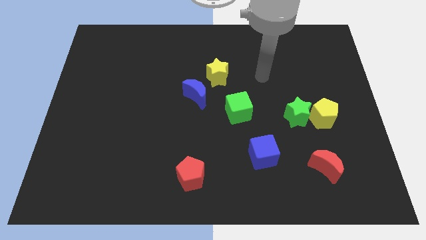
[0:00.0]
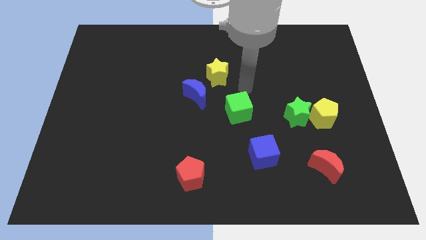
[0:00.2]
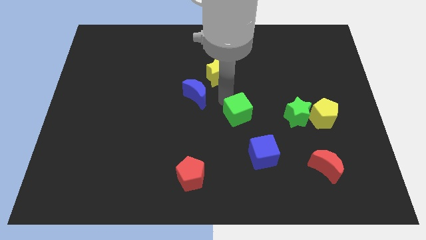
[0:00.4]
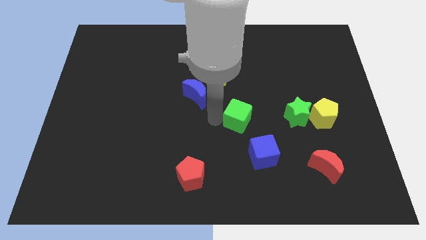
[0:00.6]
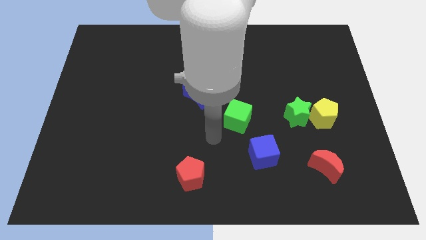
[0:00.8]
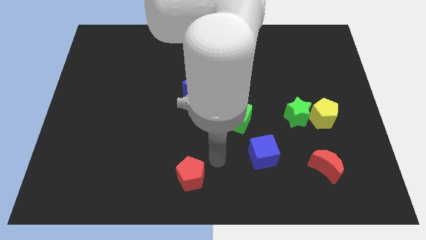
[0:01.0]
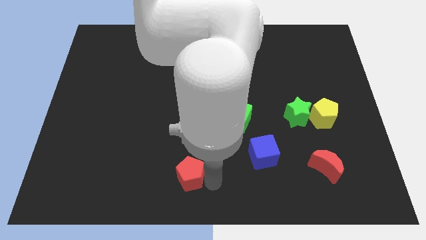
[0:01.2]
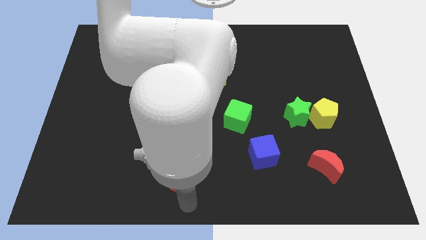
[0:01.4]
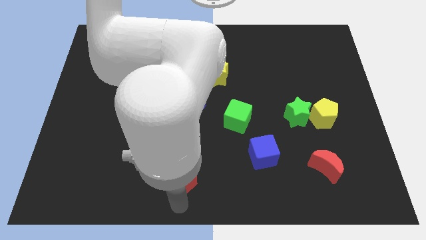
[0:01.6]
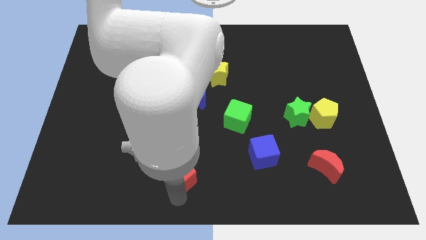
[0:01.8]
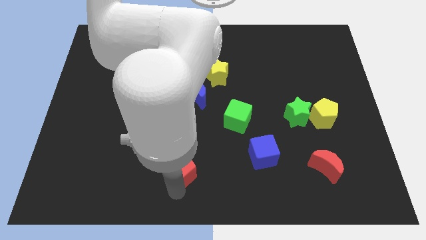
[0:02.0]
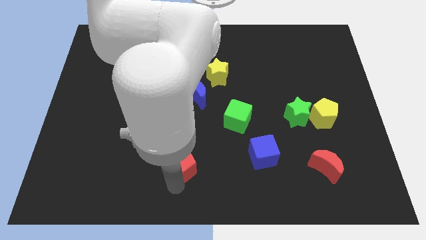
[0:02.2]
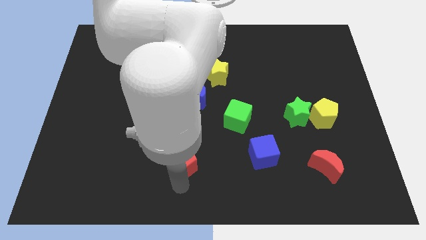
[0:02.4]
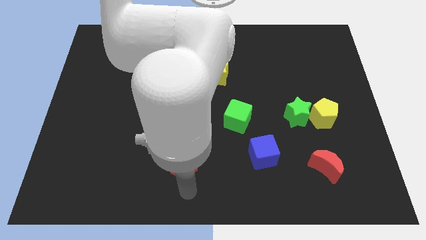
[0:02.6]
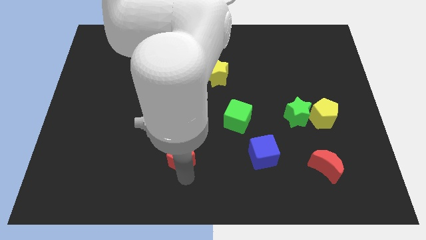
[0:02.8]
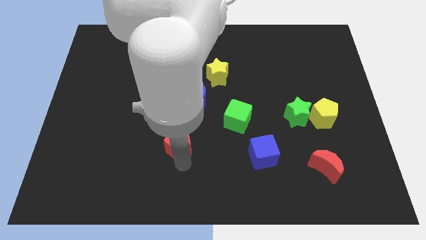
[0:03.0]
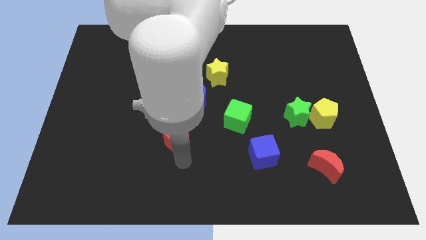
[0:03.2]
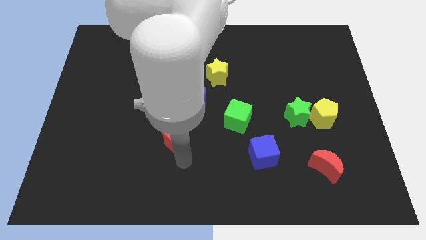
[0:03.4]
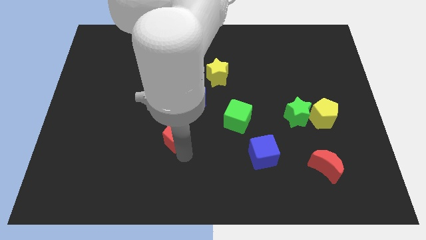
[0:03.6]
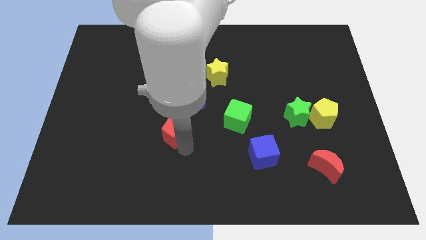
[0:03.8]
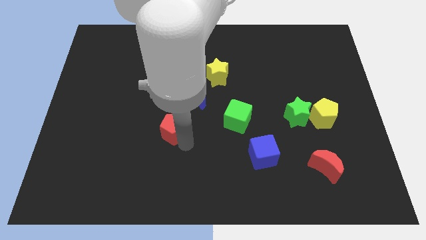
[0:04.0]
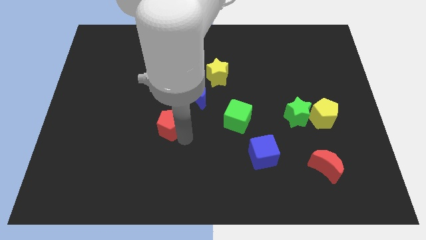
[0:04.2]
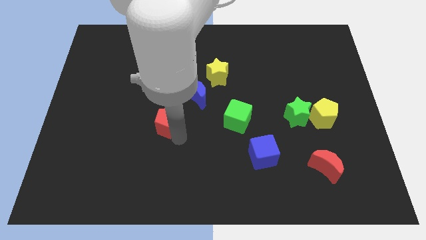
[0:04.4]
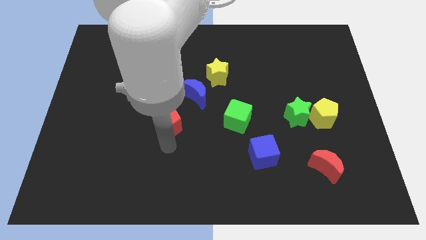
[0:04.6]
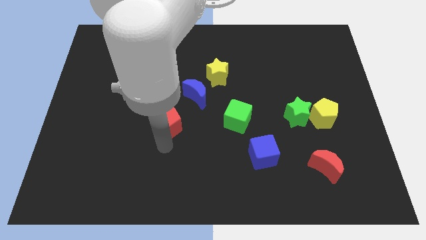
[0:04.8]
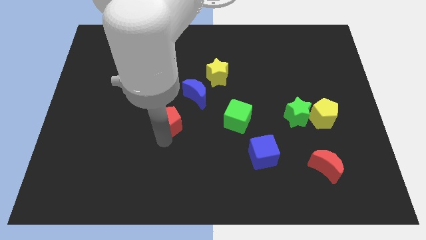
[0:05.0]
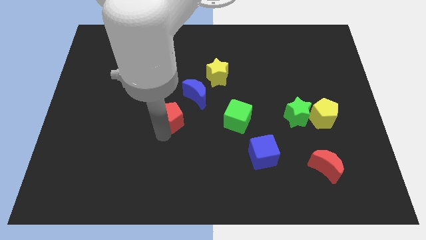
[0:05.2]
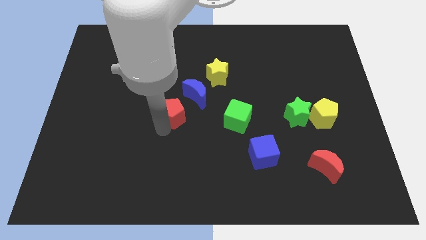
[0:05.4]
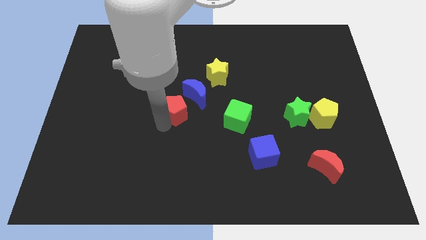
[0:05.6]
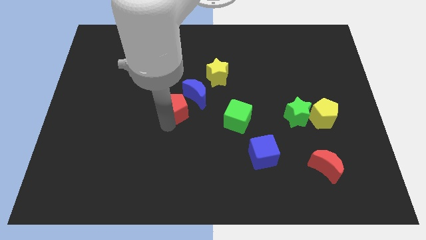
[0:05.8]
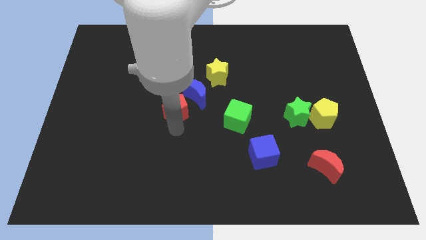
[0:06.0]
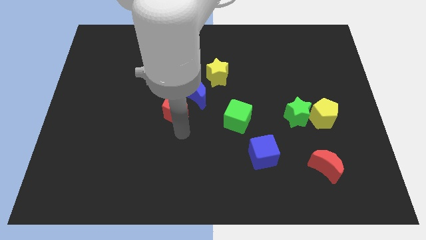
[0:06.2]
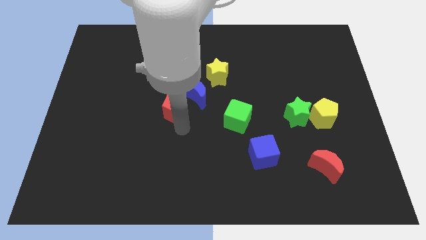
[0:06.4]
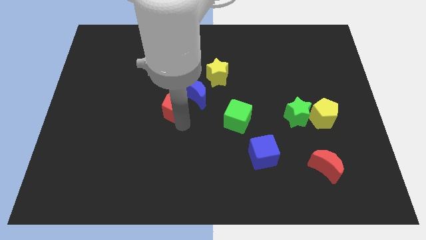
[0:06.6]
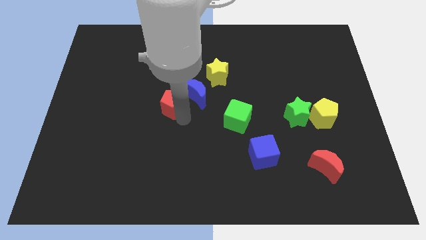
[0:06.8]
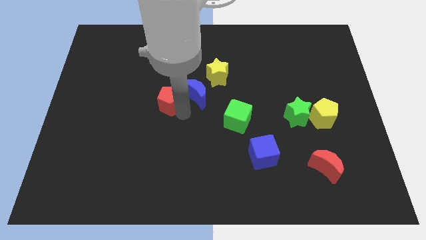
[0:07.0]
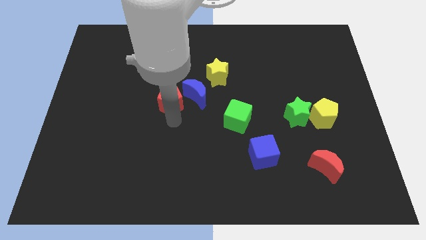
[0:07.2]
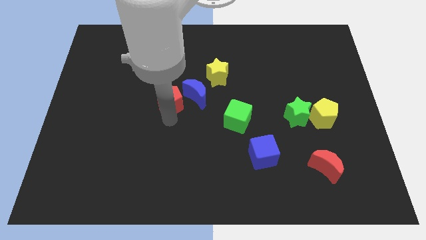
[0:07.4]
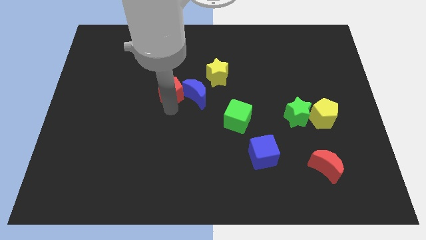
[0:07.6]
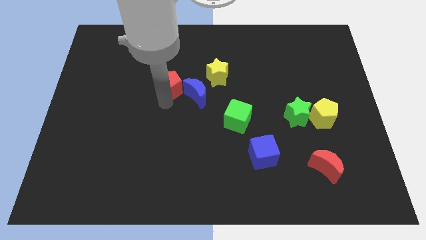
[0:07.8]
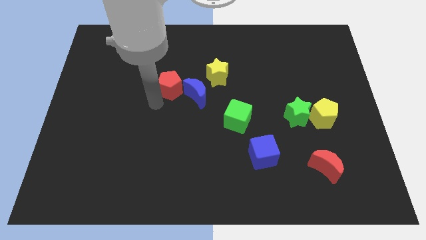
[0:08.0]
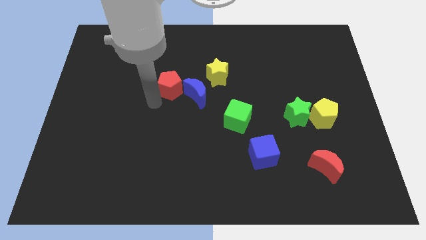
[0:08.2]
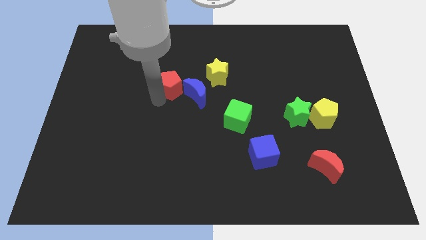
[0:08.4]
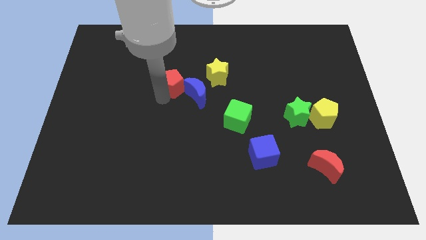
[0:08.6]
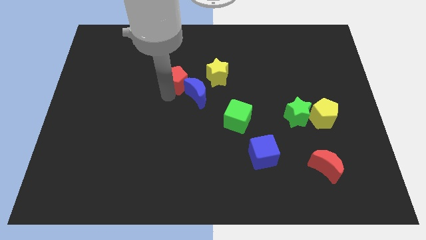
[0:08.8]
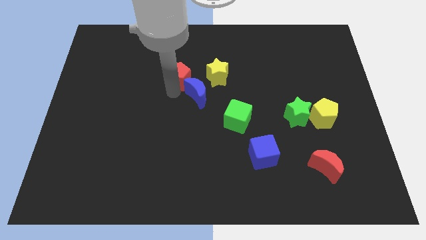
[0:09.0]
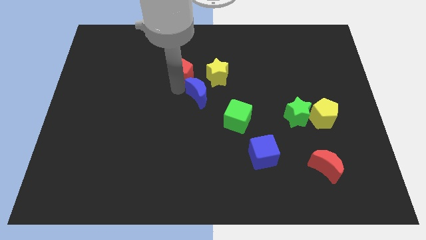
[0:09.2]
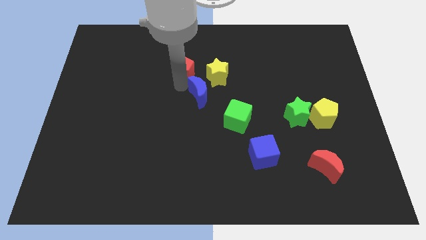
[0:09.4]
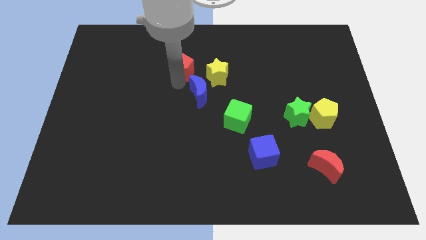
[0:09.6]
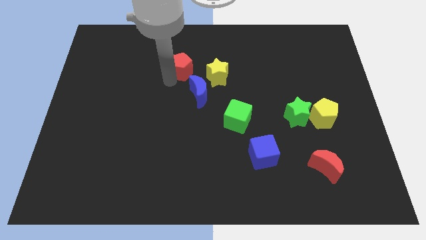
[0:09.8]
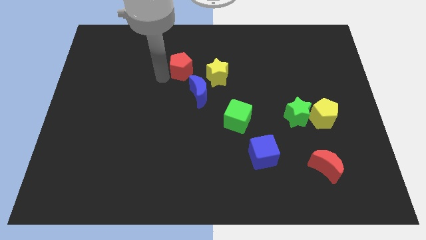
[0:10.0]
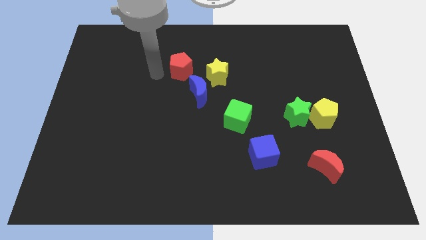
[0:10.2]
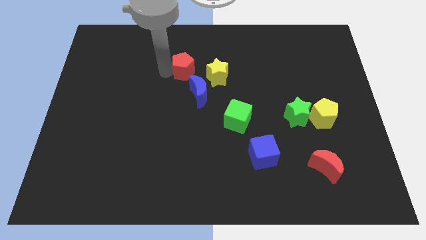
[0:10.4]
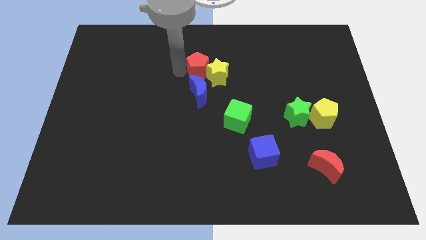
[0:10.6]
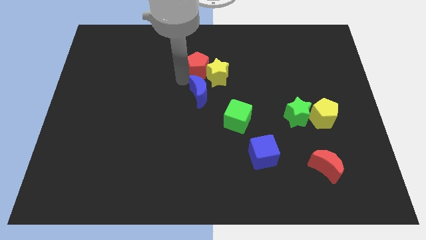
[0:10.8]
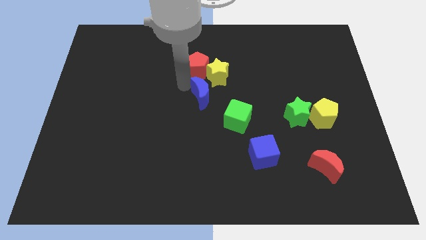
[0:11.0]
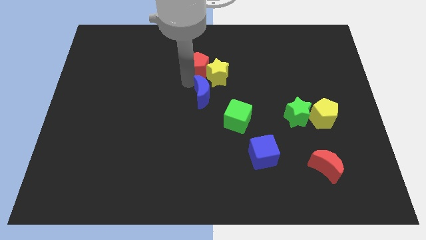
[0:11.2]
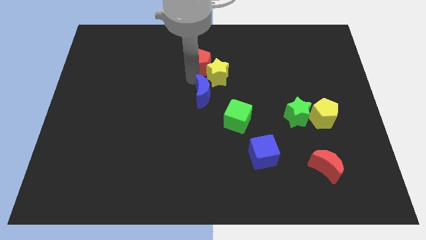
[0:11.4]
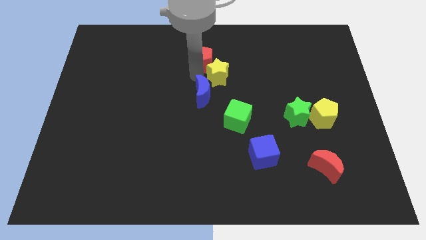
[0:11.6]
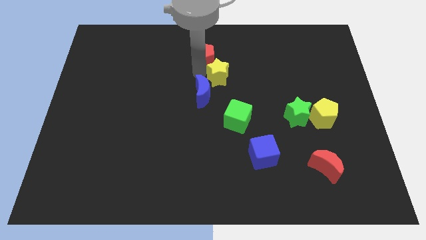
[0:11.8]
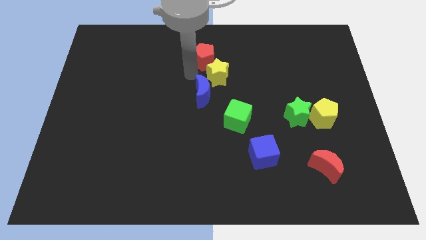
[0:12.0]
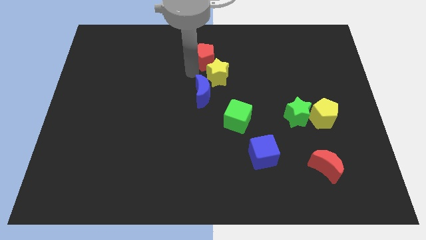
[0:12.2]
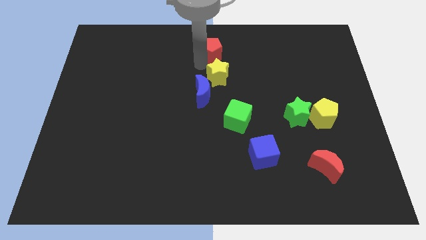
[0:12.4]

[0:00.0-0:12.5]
push the red pentagon to the towards your base
